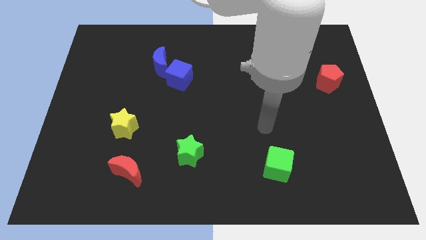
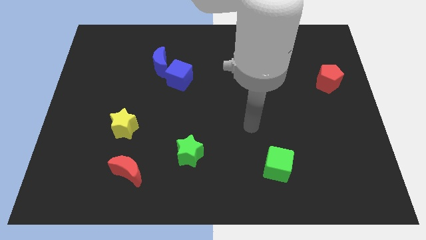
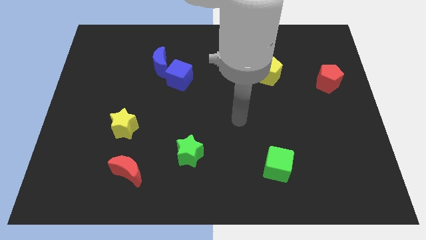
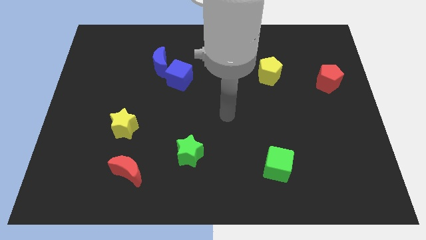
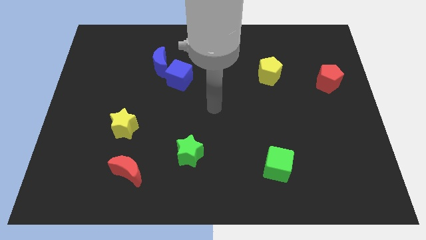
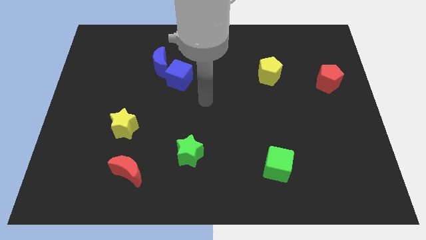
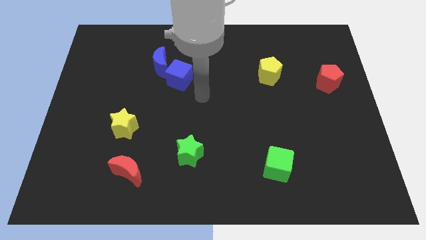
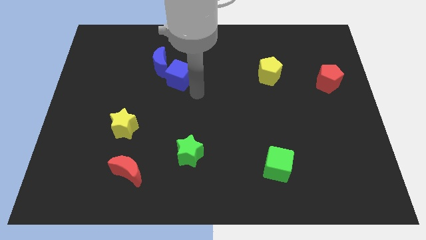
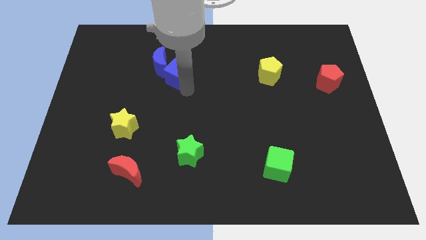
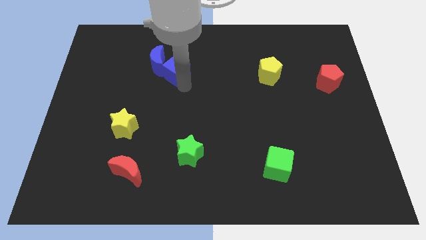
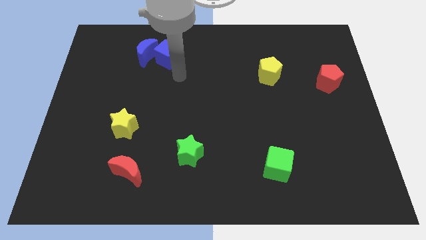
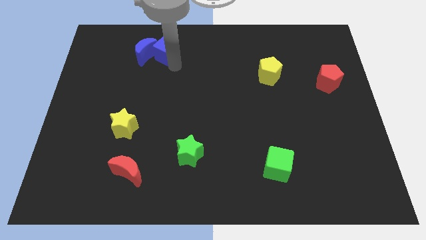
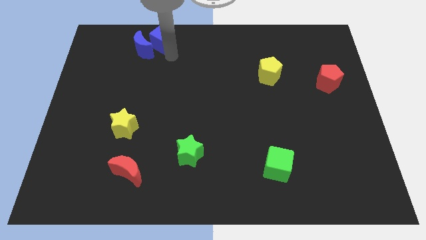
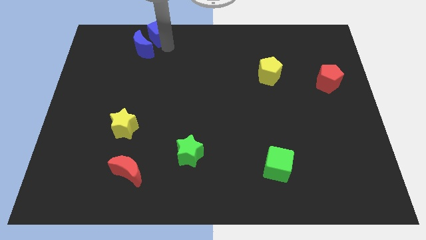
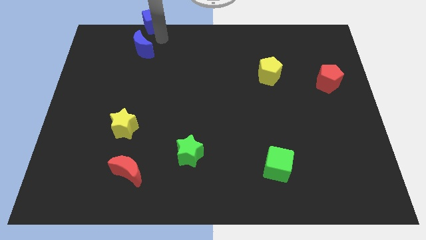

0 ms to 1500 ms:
separate the blue moon from the blue cube

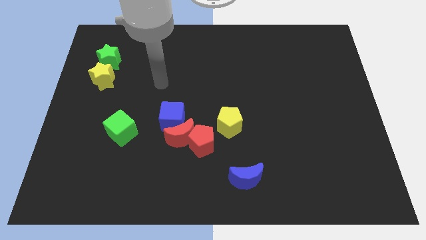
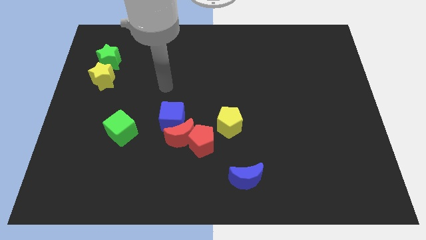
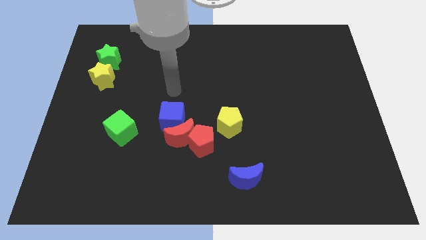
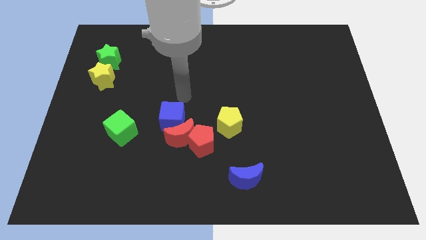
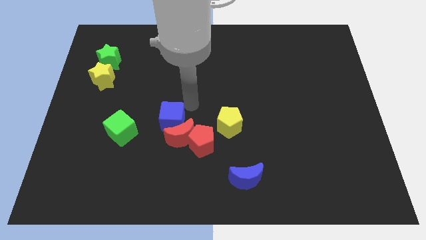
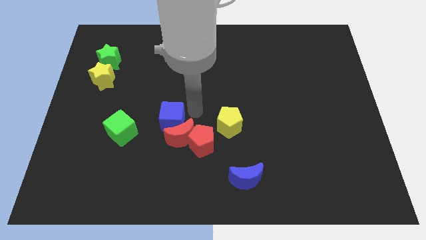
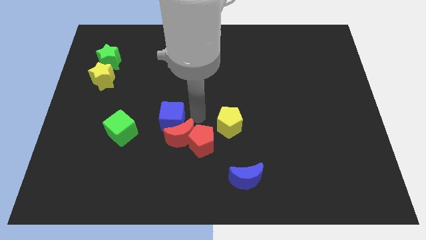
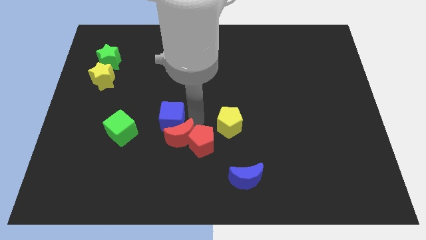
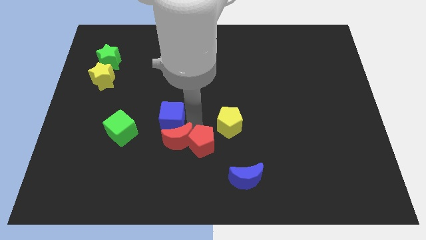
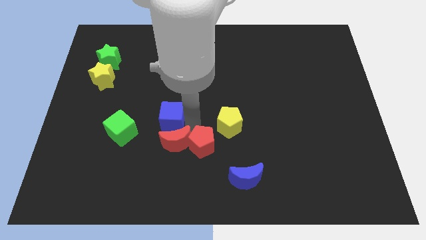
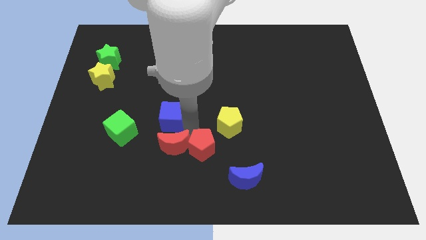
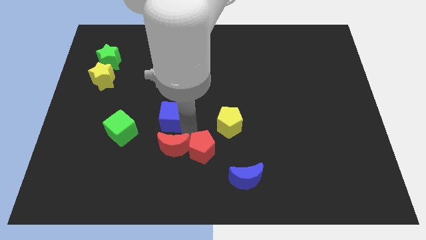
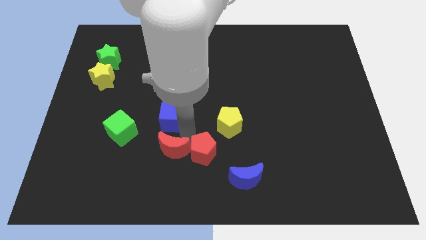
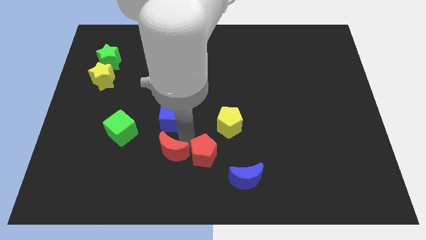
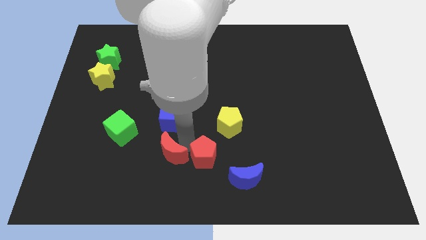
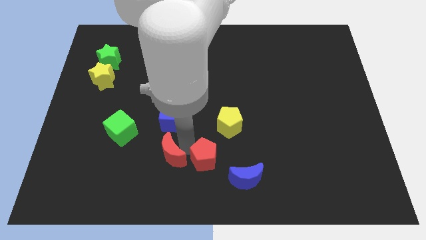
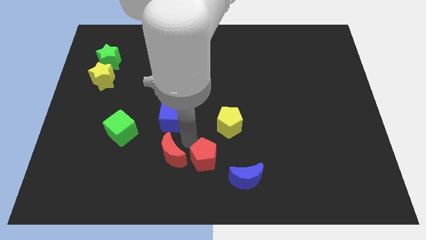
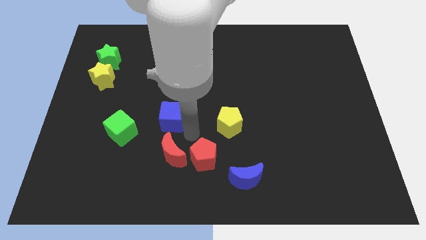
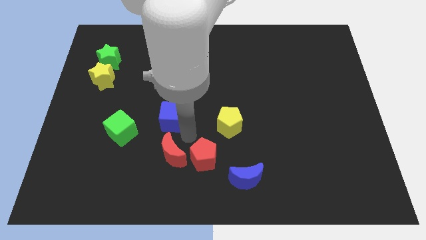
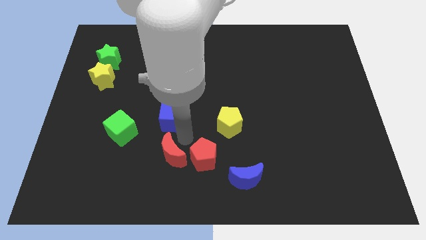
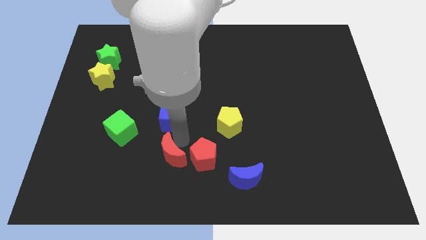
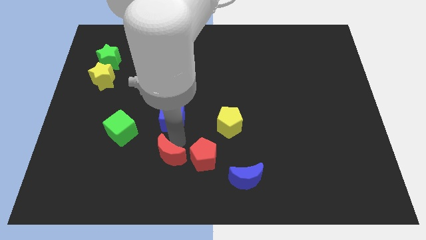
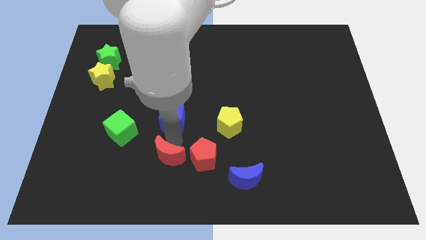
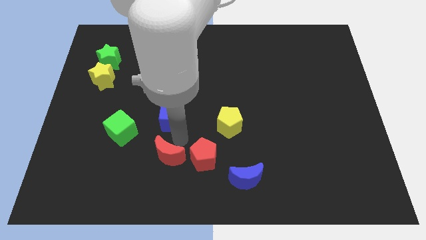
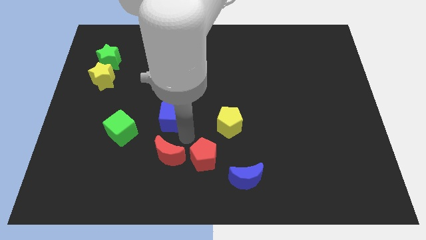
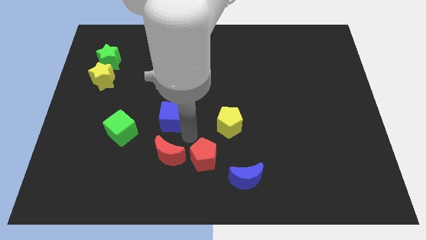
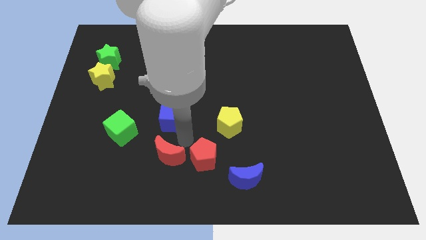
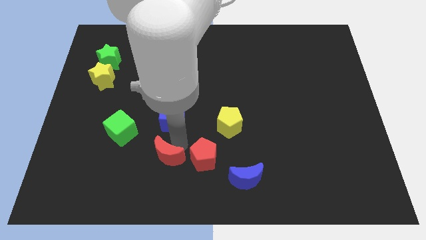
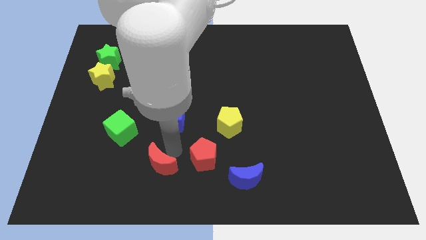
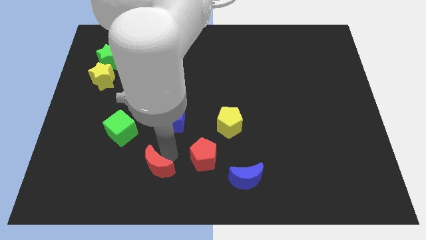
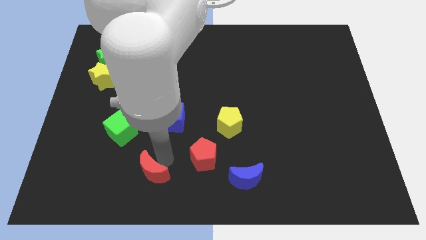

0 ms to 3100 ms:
pull the red moon apart from the red pentagon and blue cube

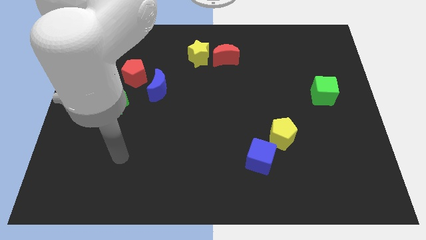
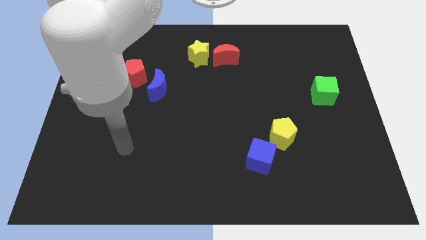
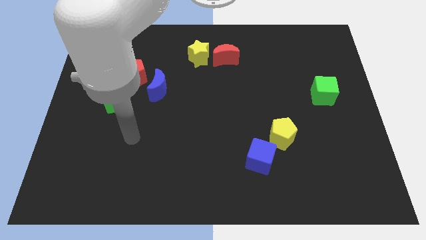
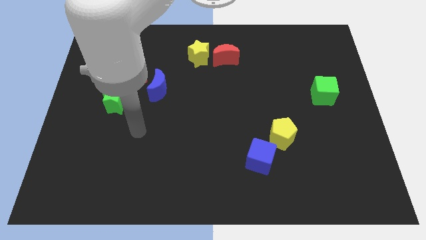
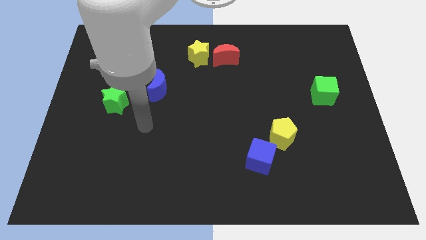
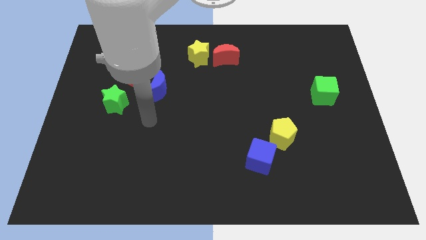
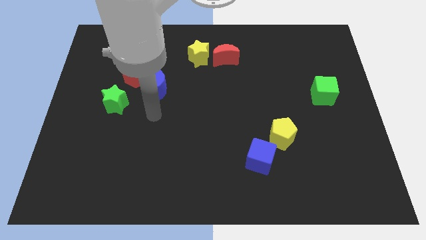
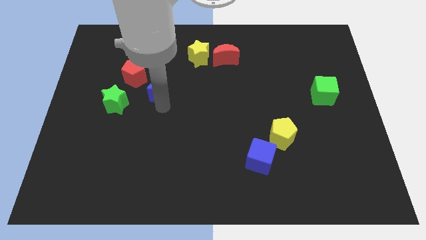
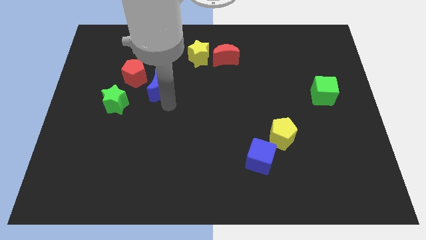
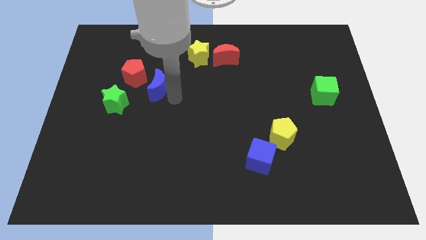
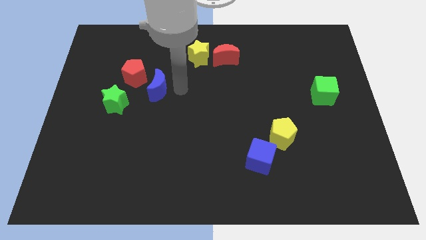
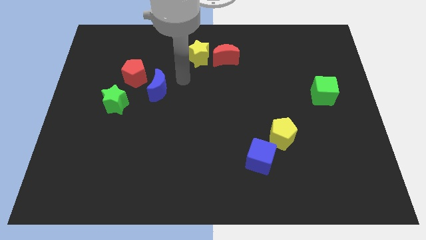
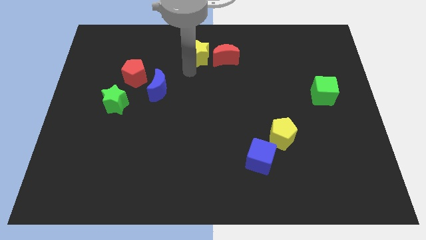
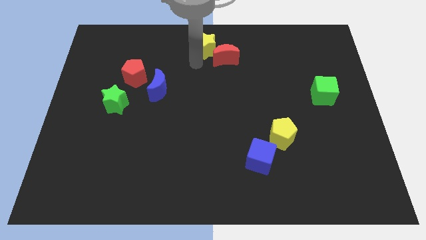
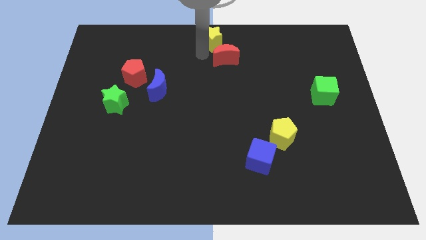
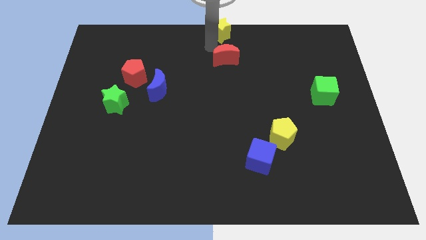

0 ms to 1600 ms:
move the red moon away from the yellow star

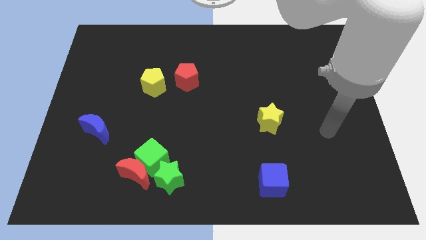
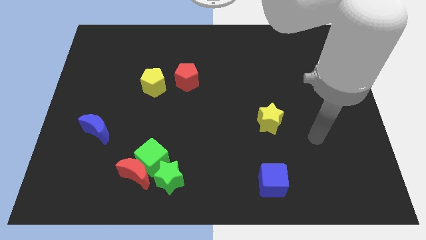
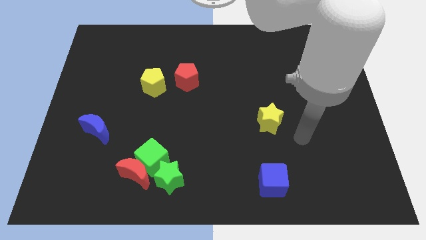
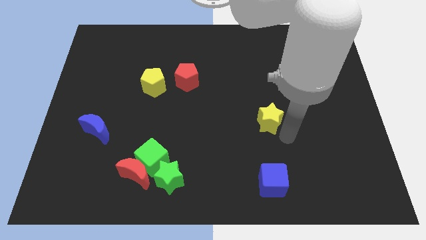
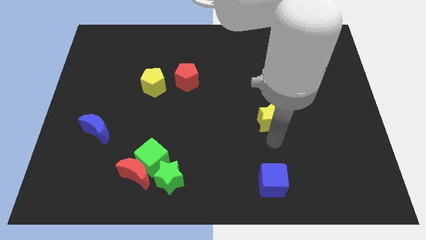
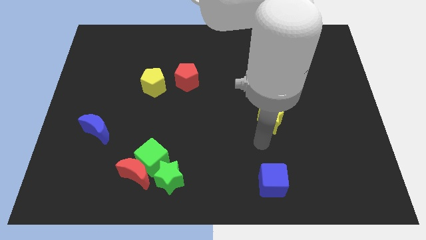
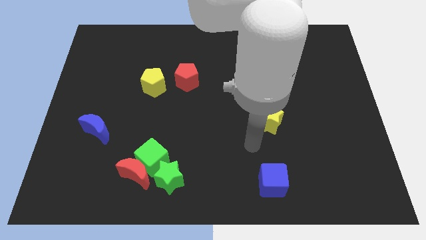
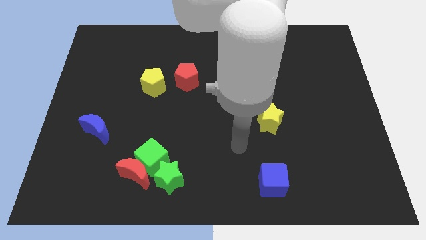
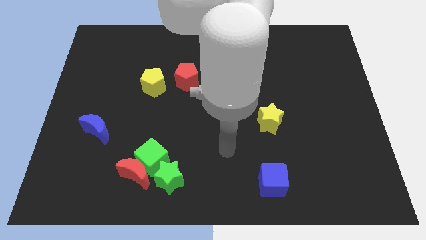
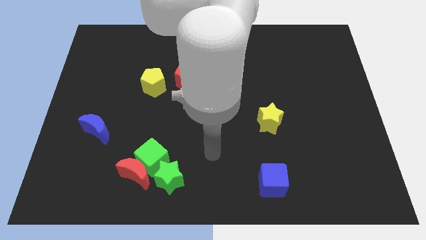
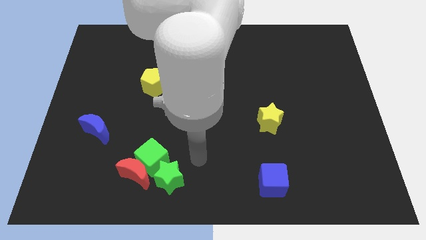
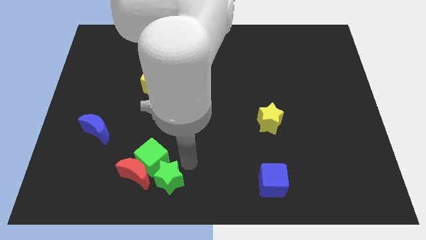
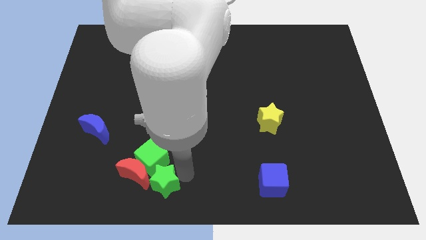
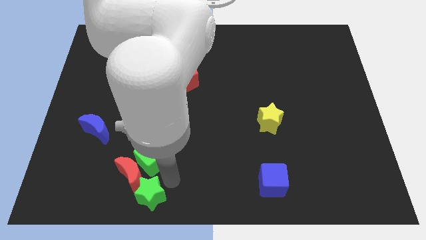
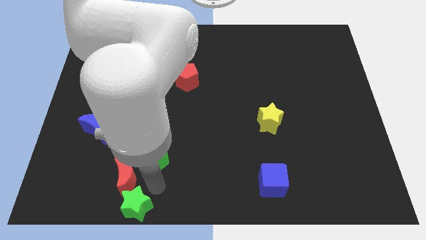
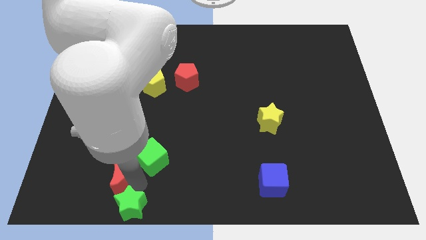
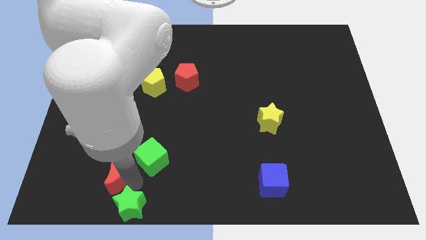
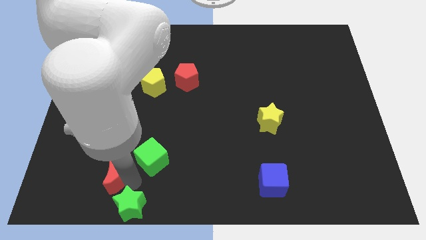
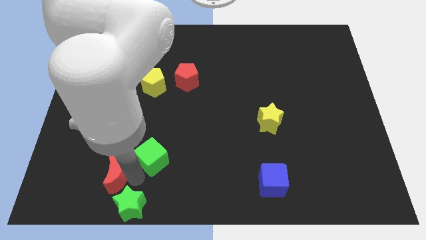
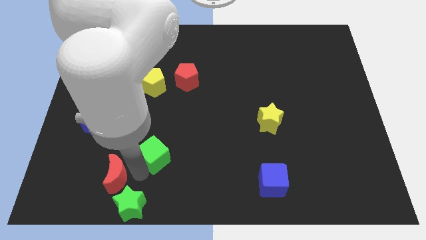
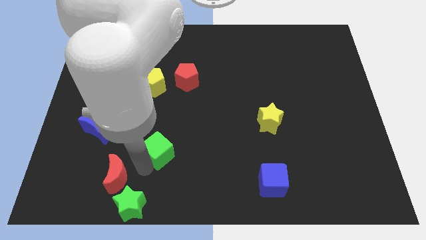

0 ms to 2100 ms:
pull the green cube apart from the red moon and green star

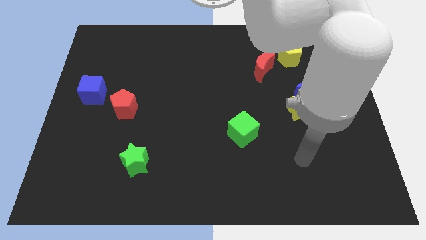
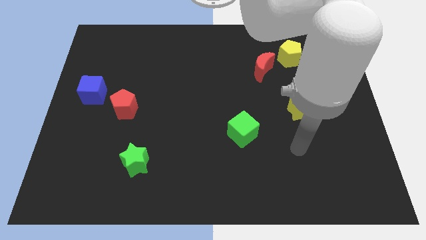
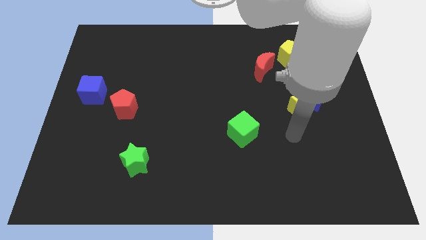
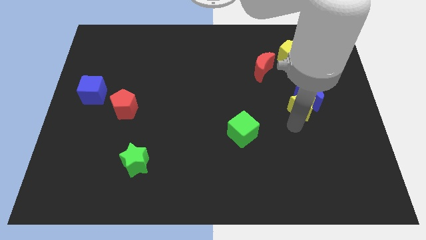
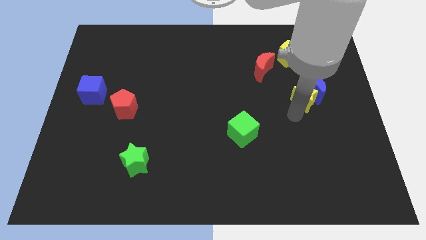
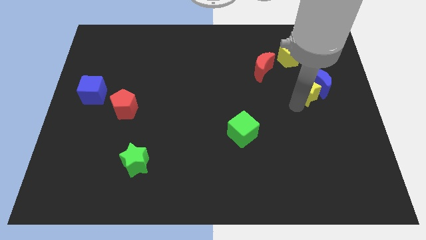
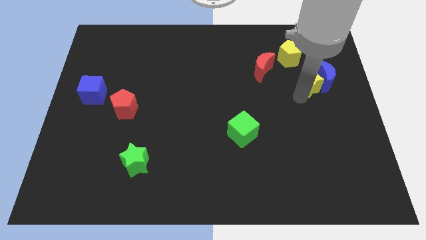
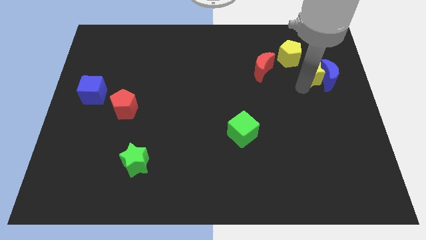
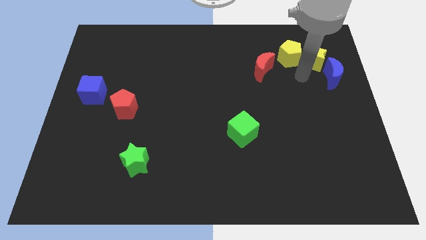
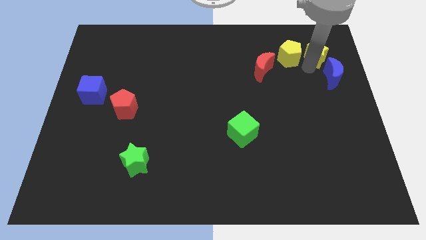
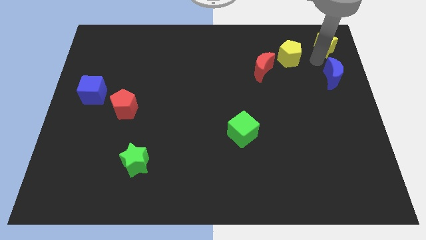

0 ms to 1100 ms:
pull the blue moon apart from the yellow star
